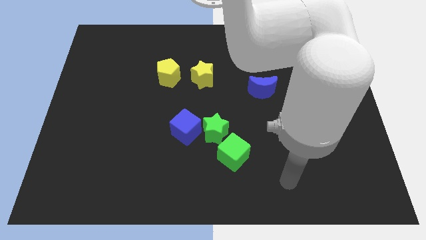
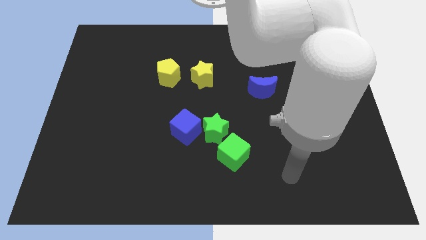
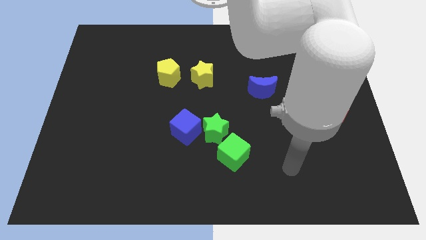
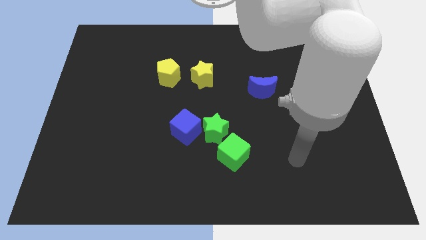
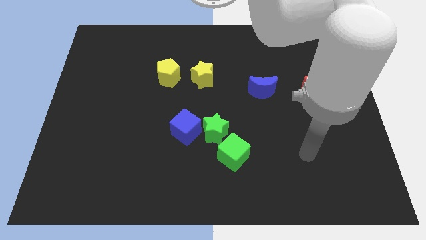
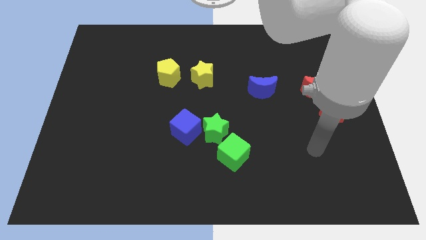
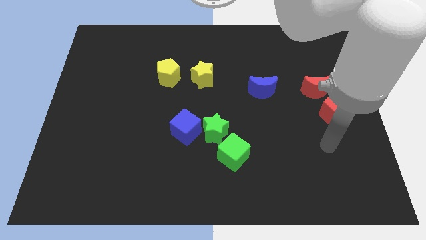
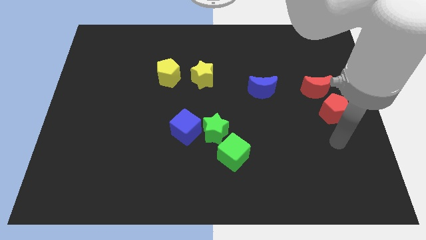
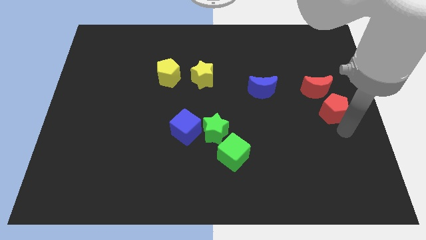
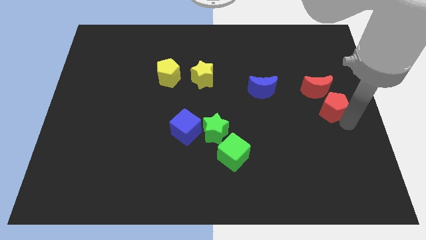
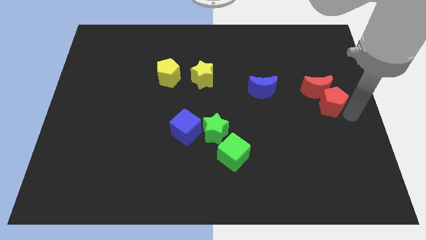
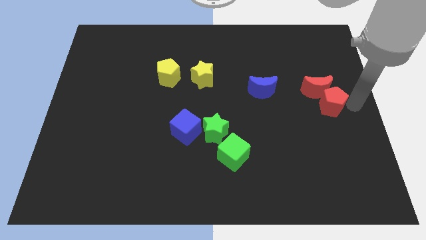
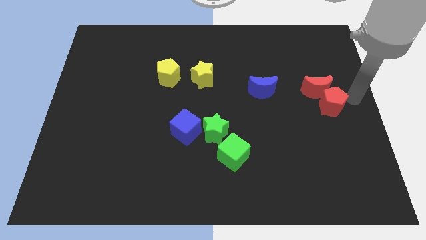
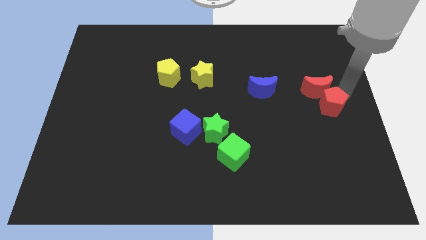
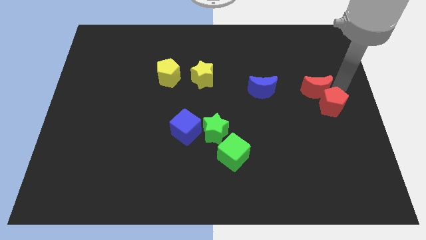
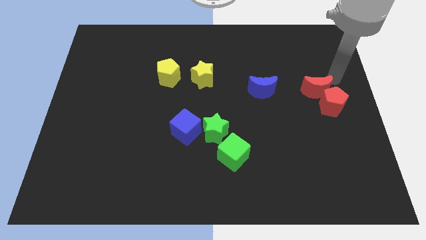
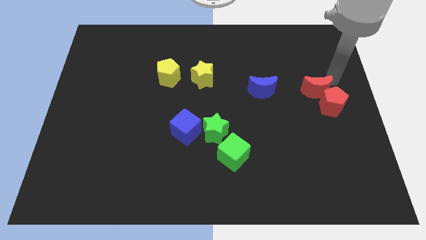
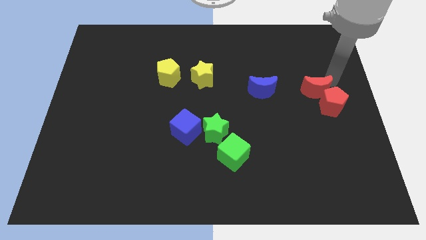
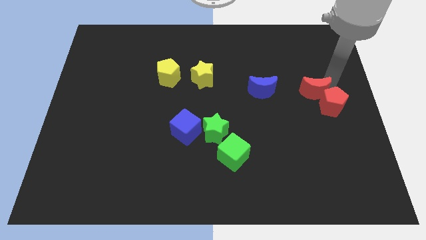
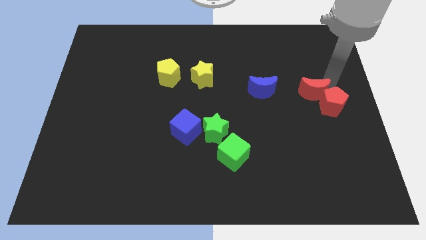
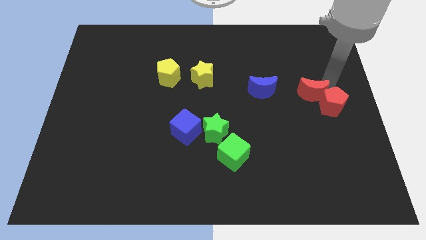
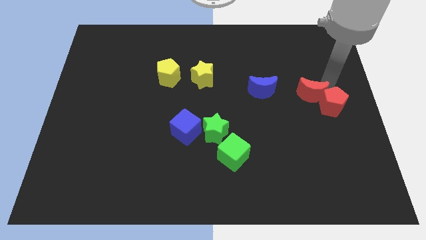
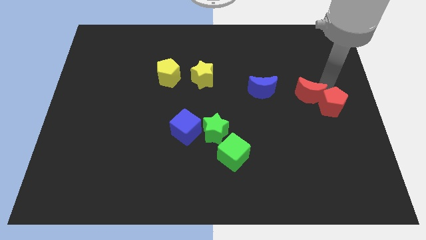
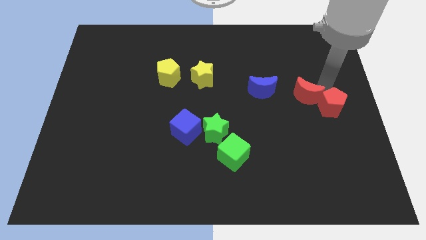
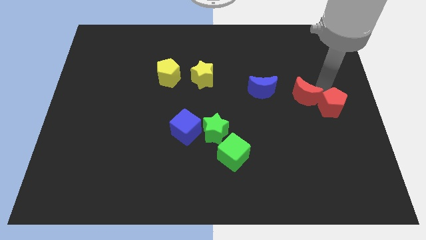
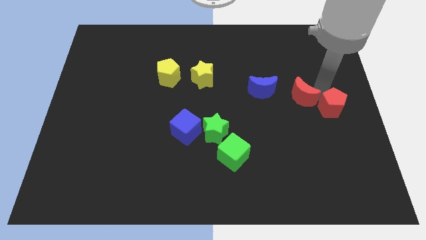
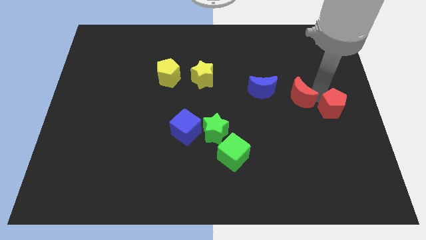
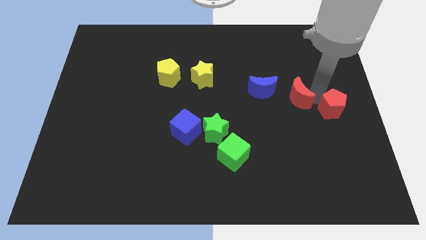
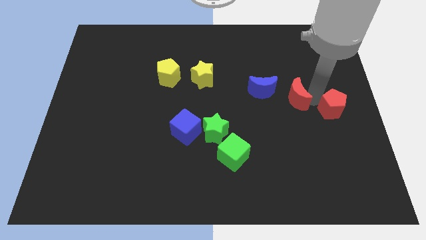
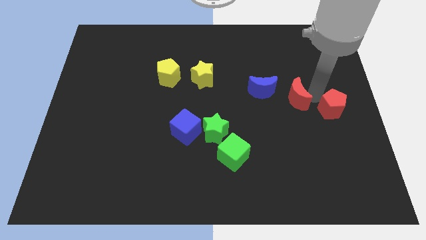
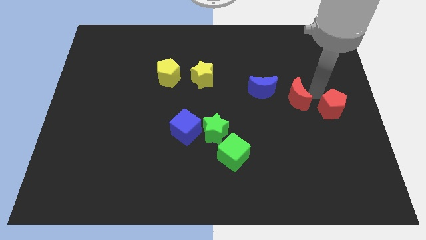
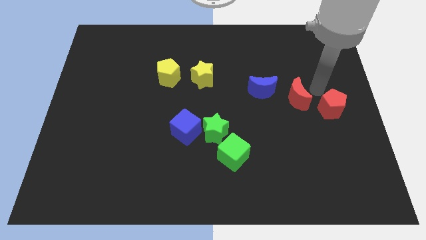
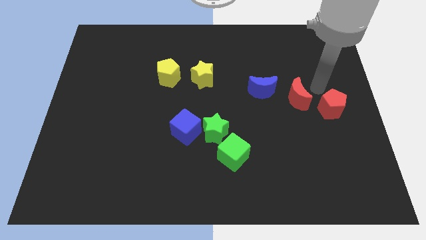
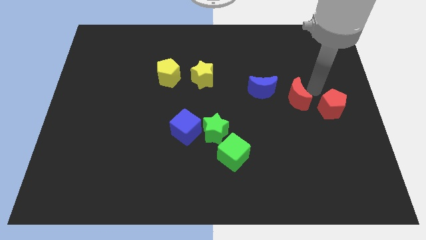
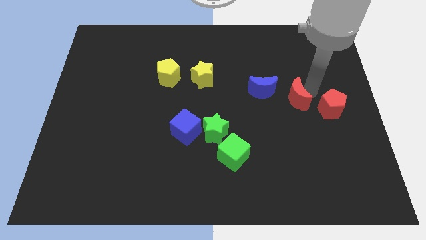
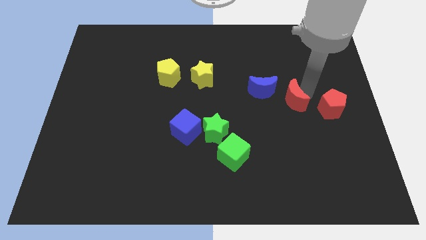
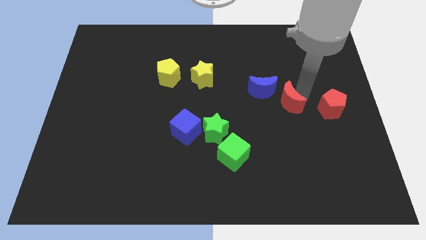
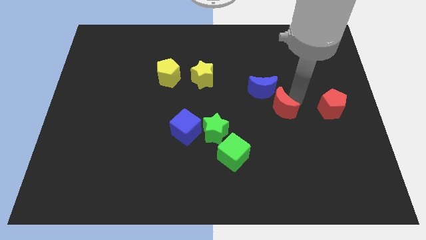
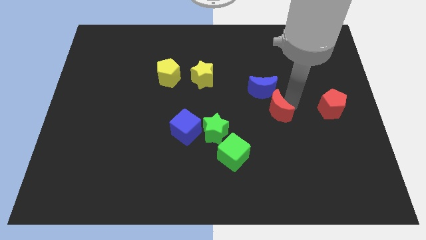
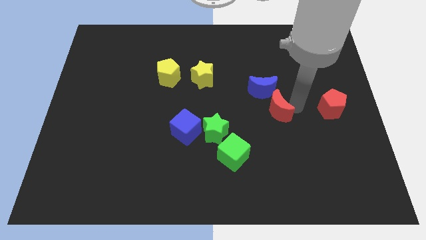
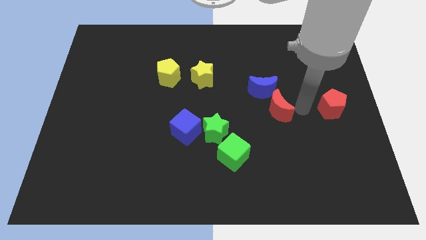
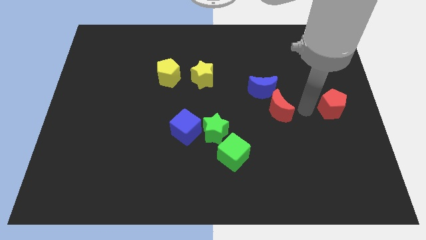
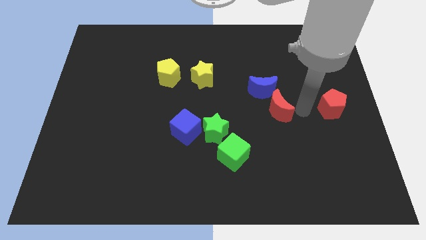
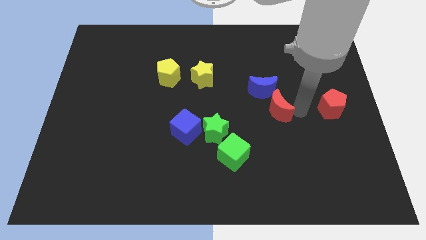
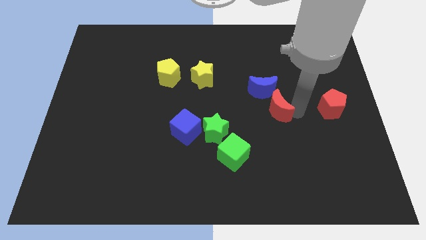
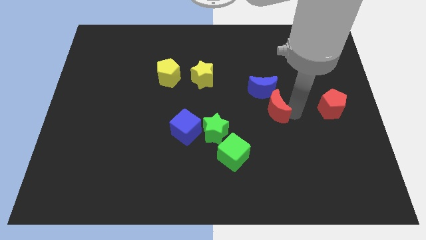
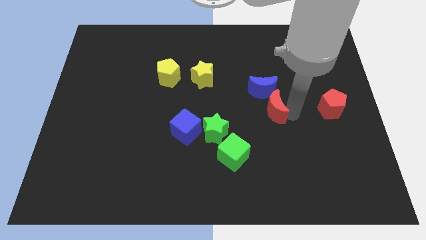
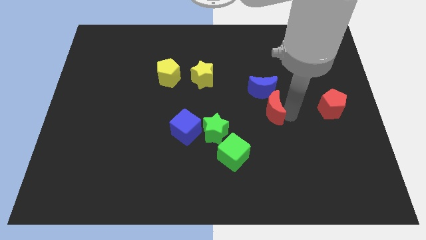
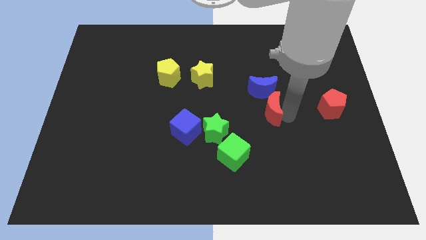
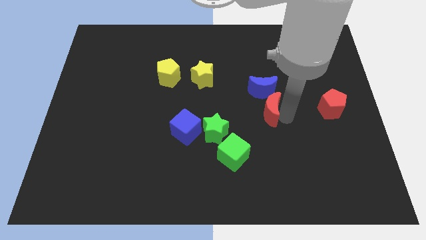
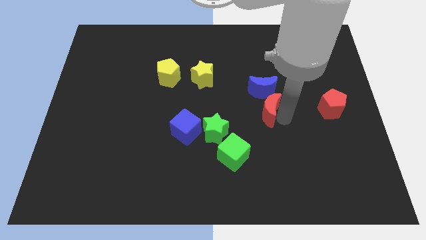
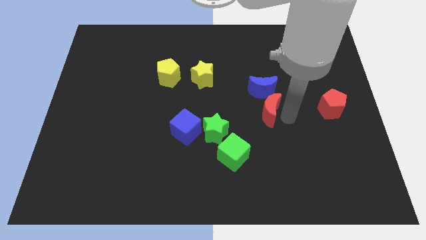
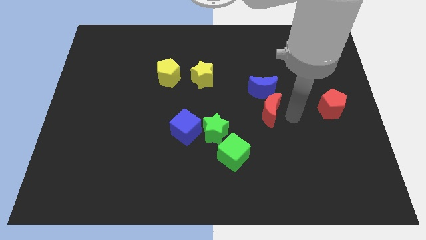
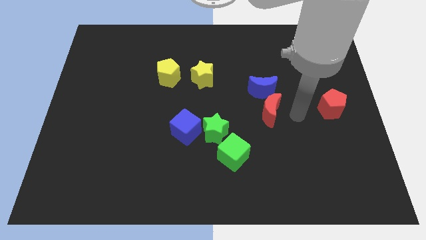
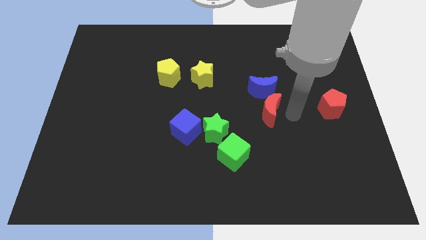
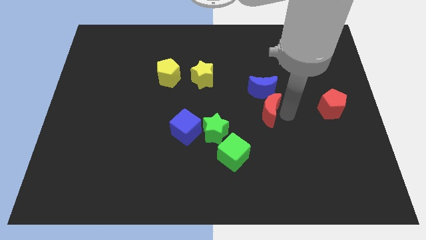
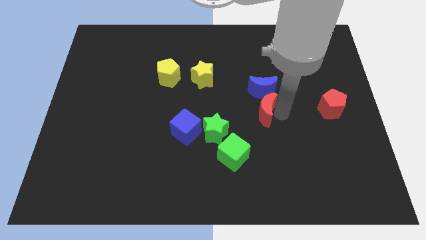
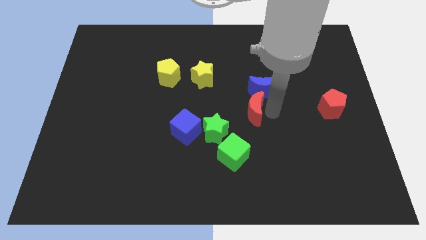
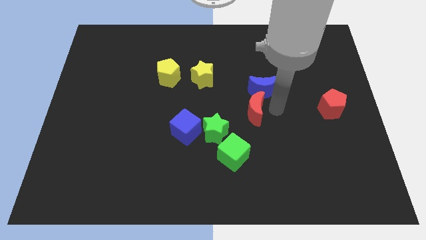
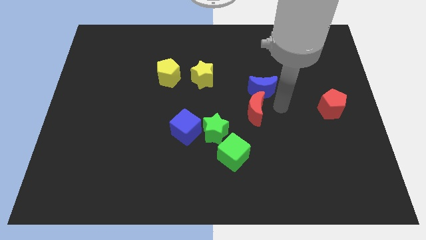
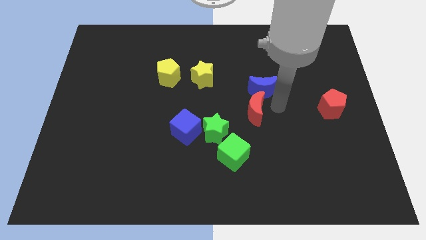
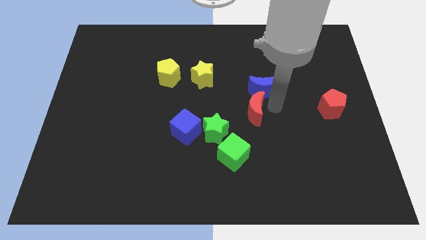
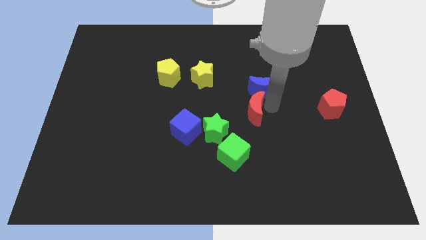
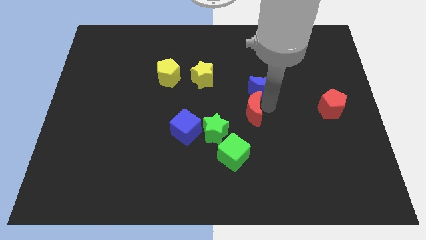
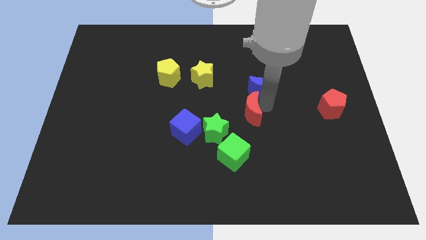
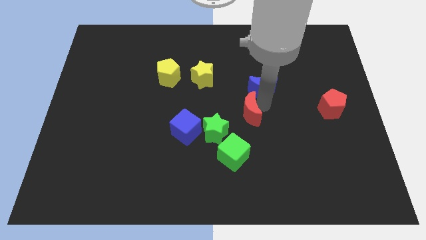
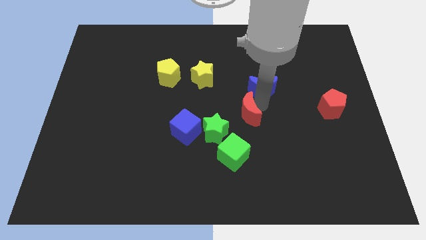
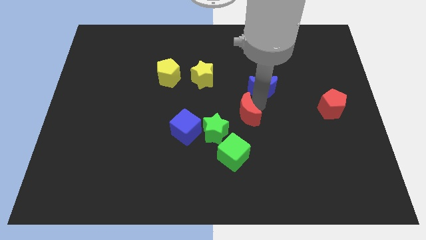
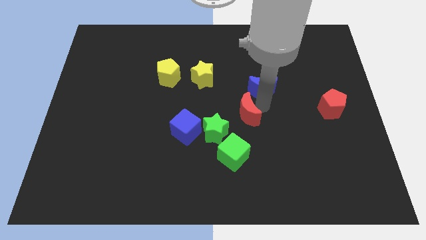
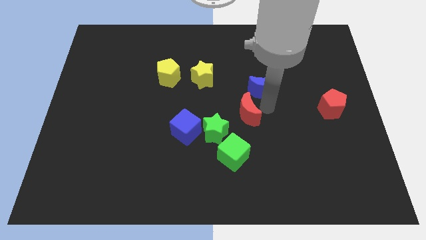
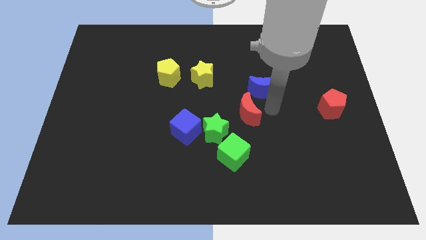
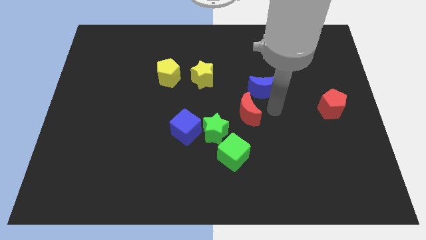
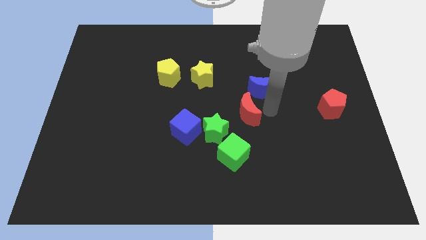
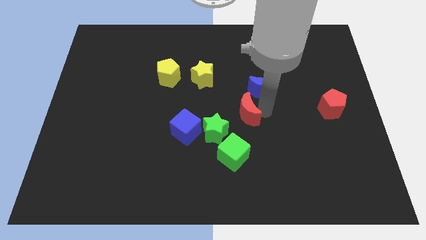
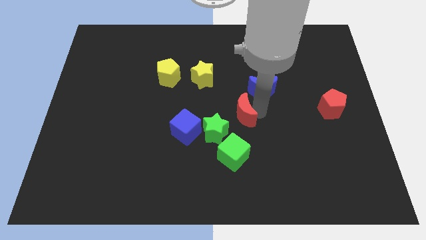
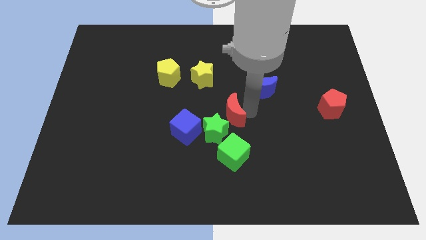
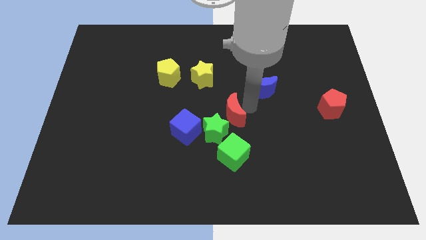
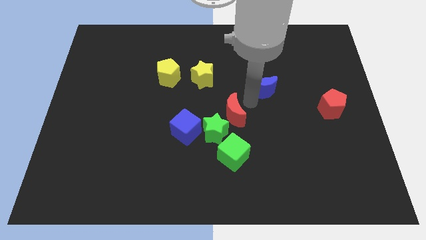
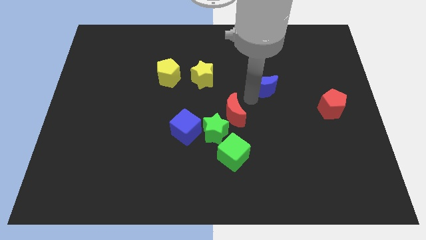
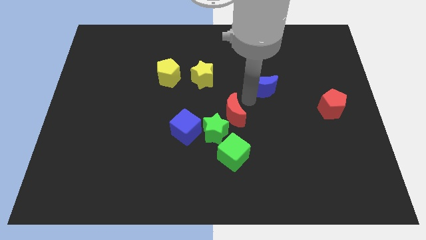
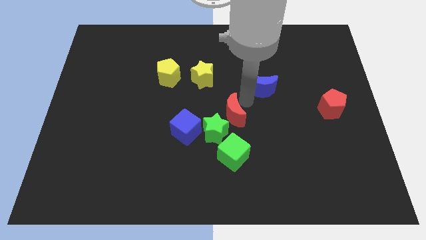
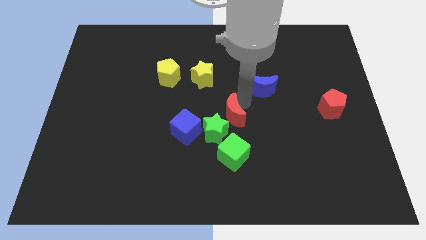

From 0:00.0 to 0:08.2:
move the red moon next to the green star
